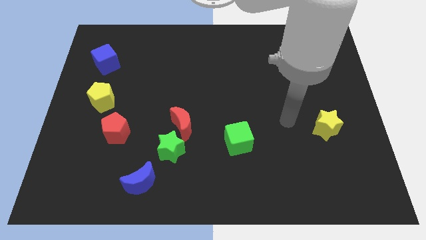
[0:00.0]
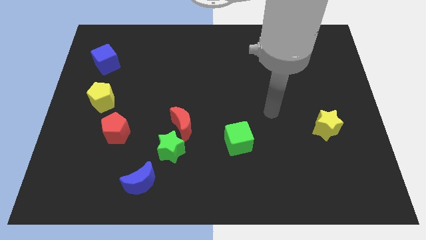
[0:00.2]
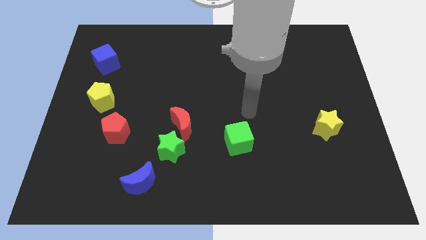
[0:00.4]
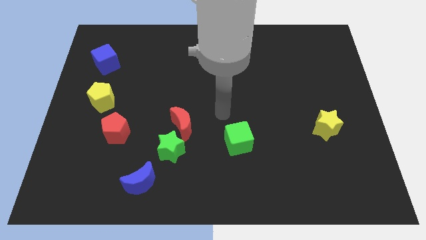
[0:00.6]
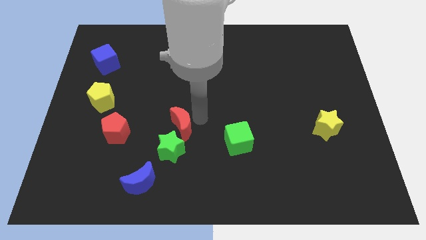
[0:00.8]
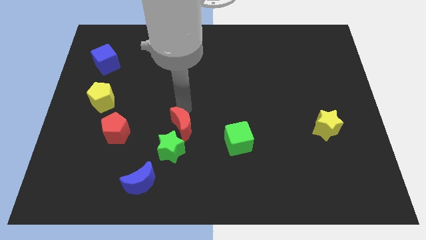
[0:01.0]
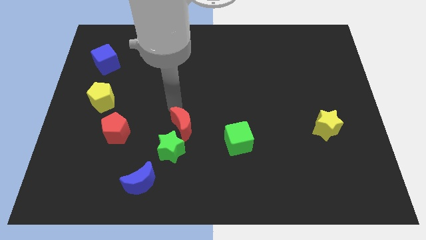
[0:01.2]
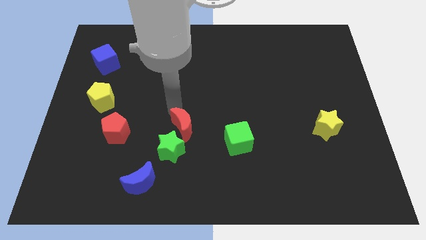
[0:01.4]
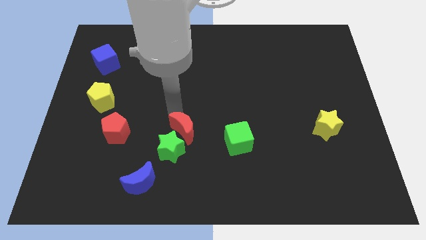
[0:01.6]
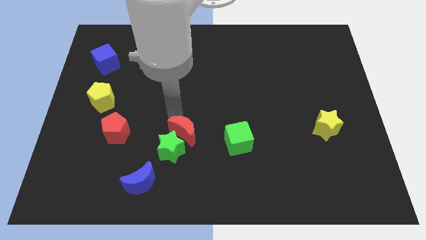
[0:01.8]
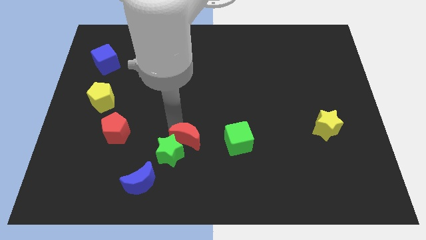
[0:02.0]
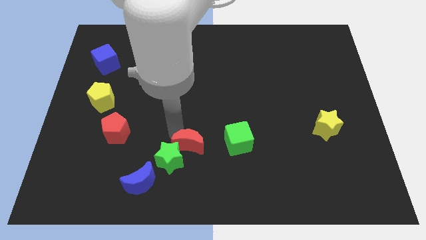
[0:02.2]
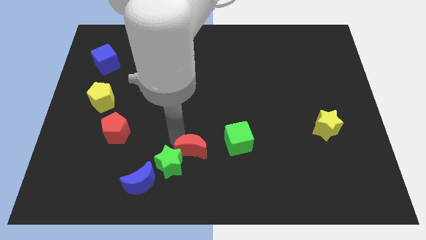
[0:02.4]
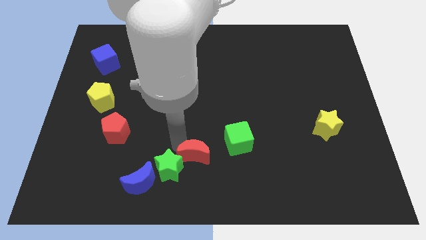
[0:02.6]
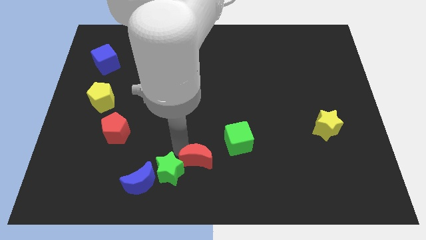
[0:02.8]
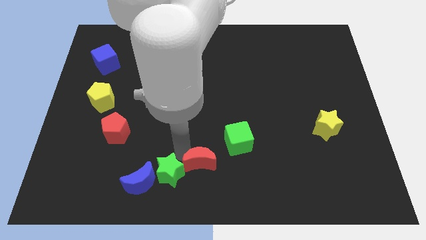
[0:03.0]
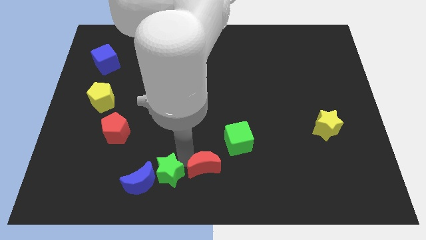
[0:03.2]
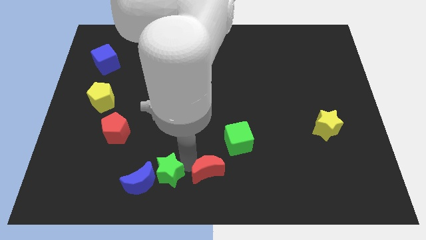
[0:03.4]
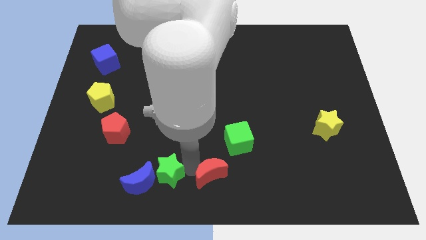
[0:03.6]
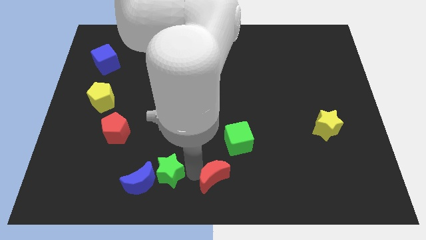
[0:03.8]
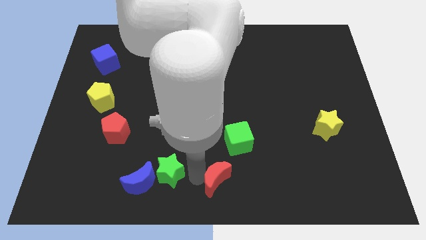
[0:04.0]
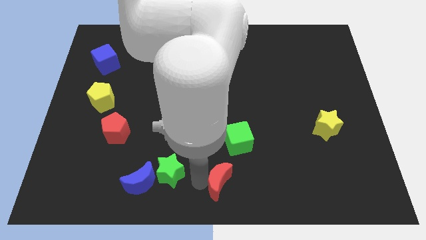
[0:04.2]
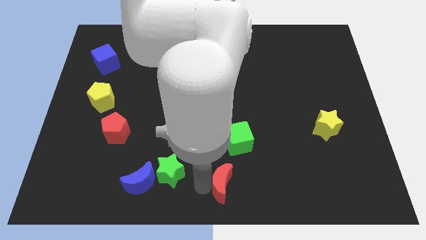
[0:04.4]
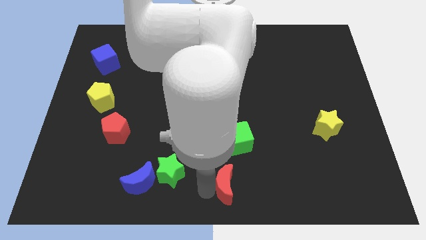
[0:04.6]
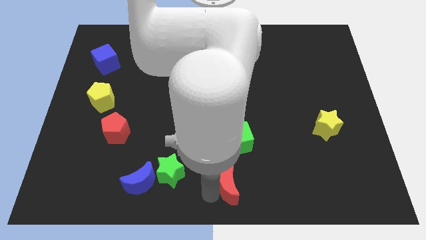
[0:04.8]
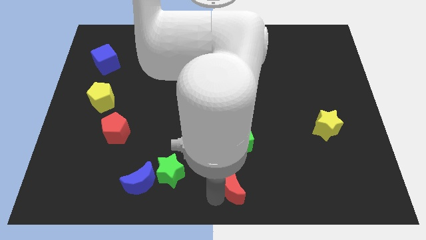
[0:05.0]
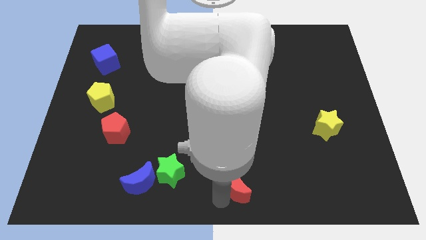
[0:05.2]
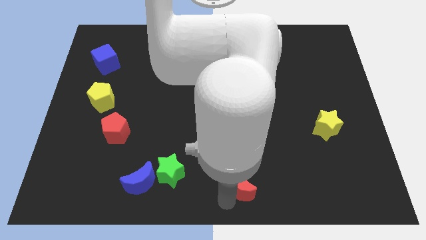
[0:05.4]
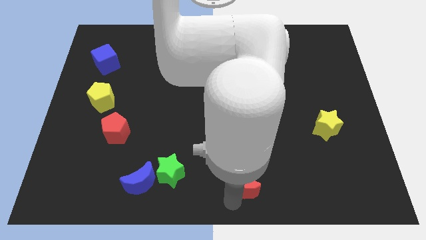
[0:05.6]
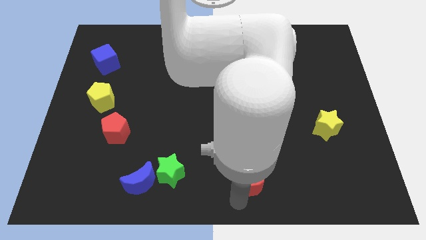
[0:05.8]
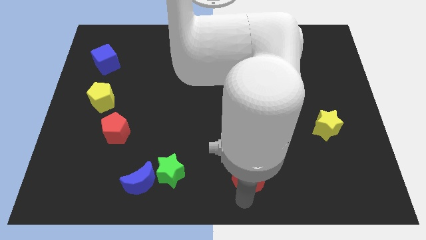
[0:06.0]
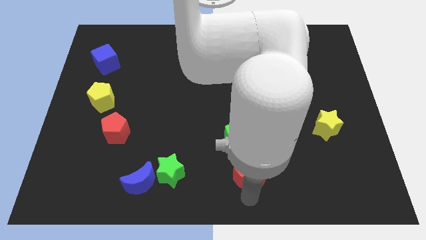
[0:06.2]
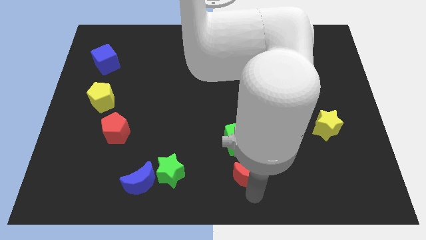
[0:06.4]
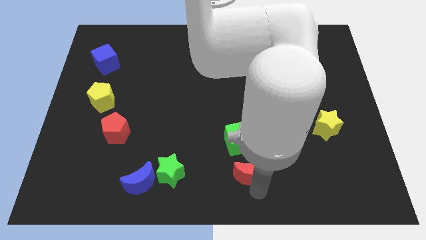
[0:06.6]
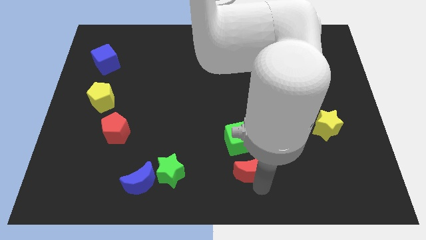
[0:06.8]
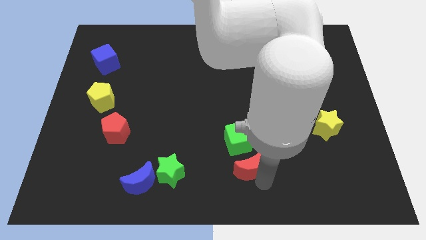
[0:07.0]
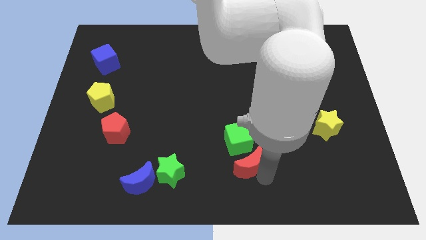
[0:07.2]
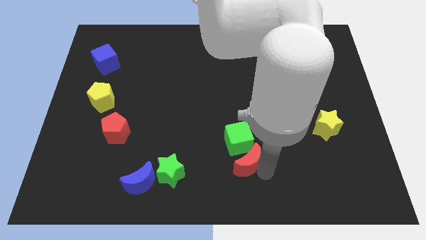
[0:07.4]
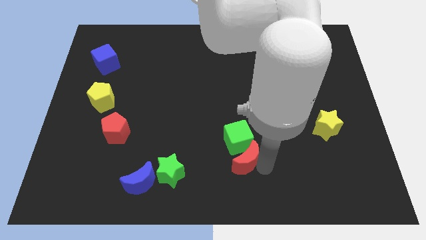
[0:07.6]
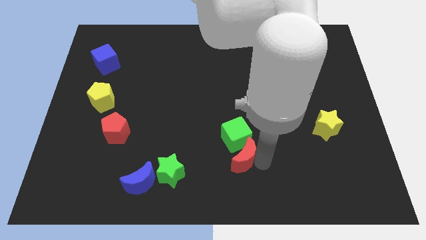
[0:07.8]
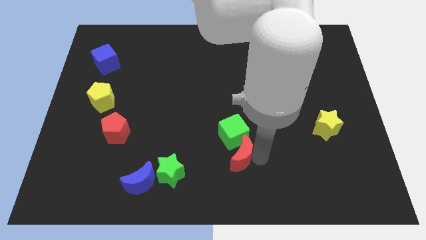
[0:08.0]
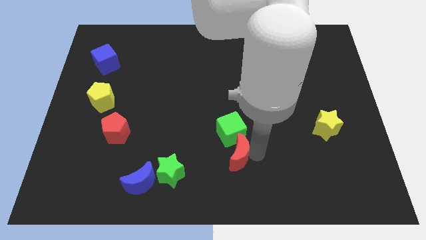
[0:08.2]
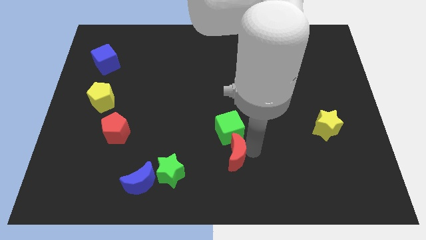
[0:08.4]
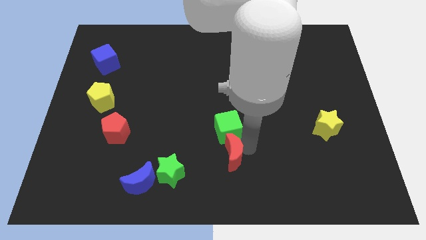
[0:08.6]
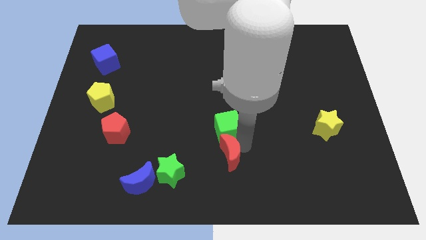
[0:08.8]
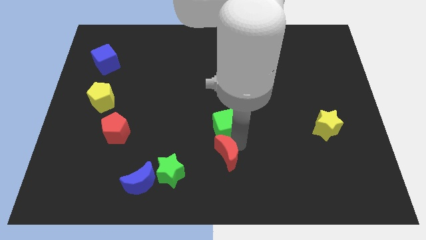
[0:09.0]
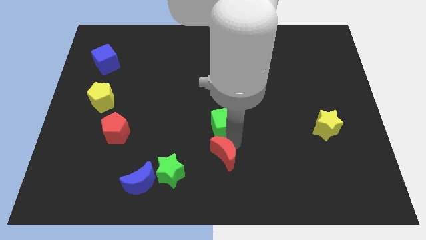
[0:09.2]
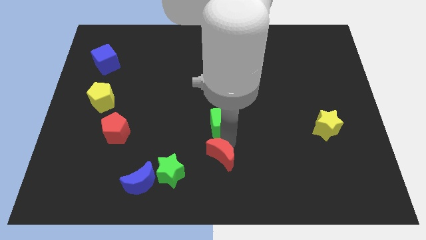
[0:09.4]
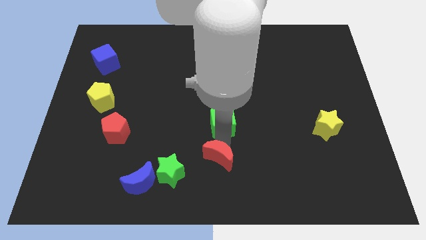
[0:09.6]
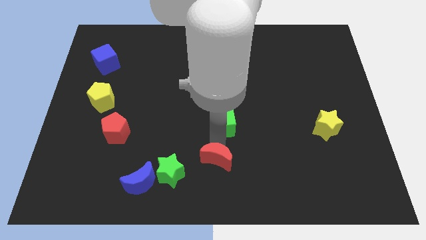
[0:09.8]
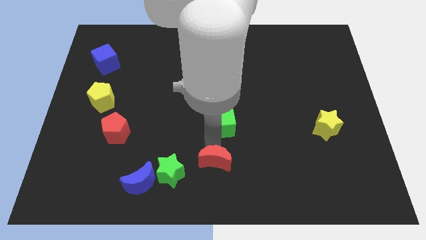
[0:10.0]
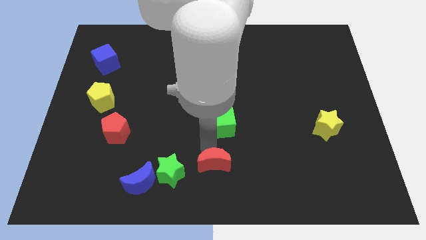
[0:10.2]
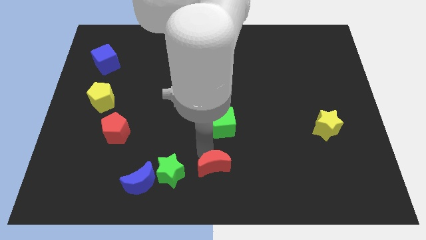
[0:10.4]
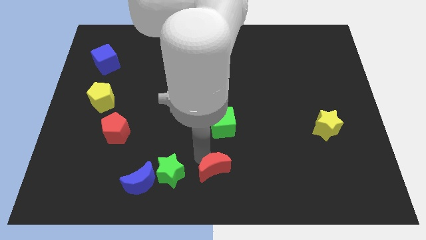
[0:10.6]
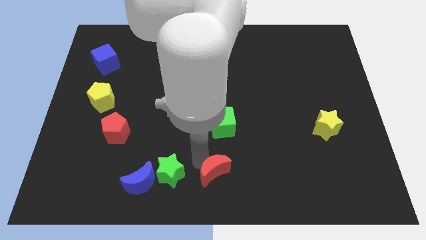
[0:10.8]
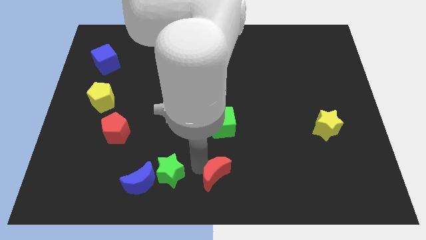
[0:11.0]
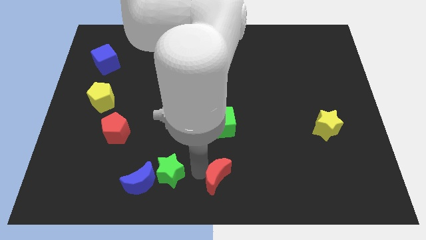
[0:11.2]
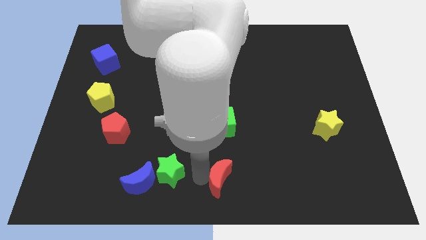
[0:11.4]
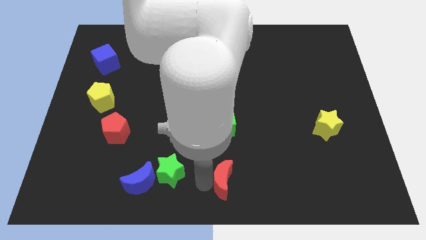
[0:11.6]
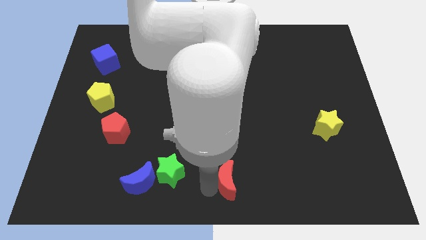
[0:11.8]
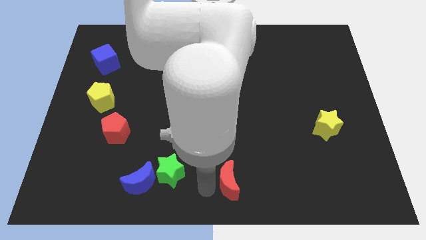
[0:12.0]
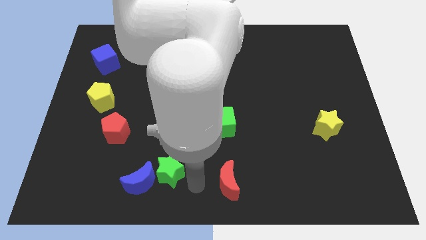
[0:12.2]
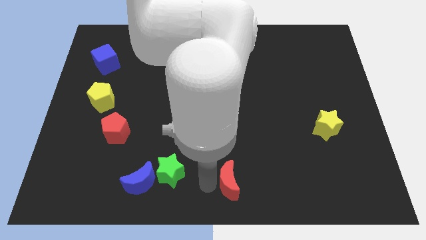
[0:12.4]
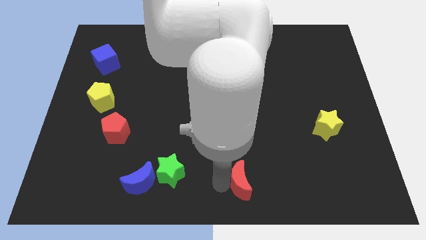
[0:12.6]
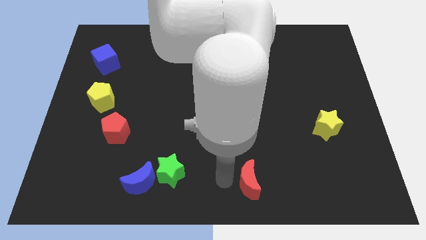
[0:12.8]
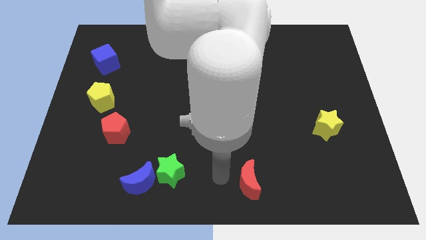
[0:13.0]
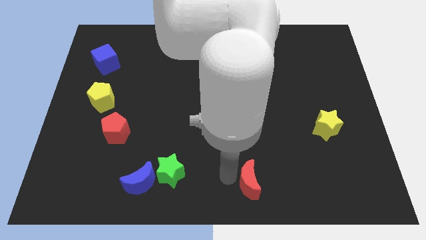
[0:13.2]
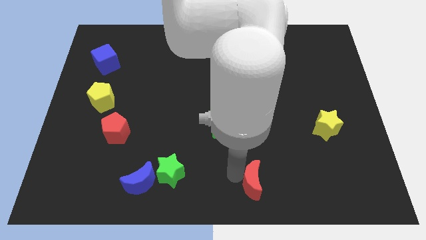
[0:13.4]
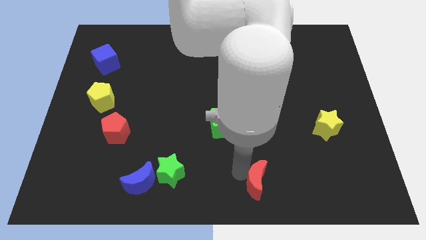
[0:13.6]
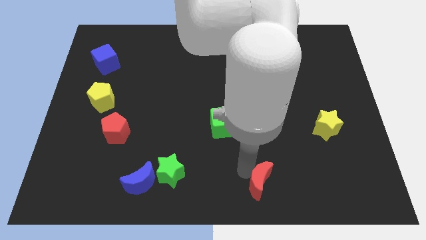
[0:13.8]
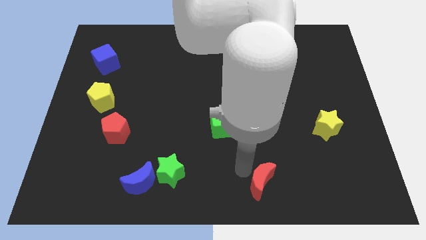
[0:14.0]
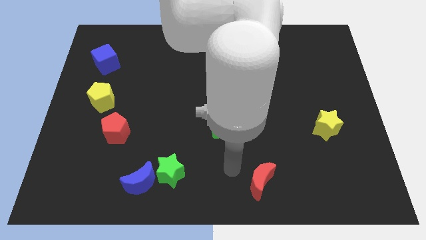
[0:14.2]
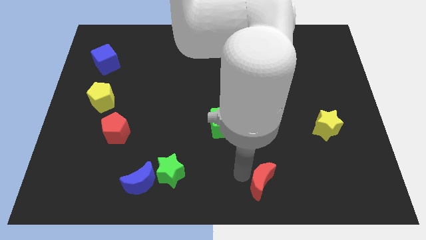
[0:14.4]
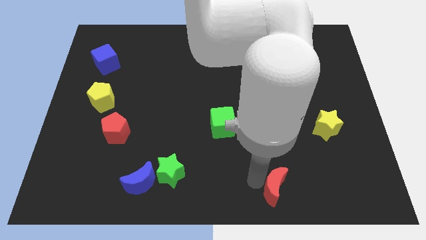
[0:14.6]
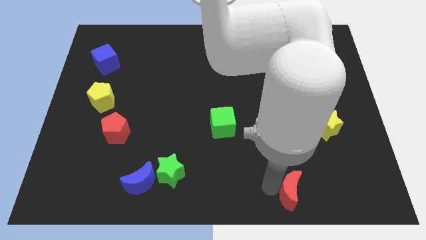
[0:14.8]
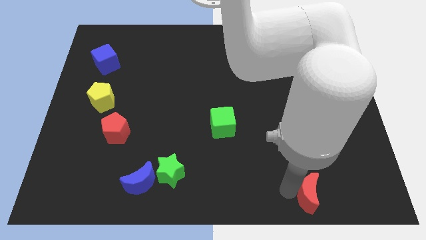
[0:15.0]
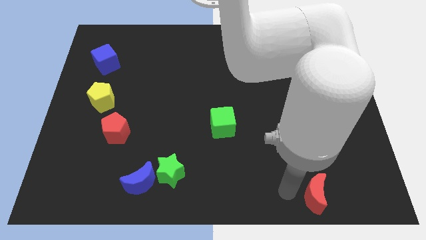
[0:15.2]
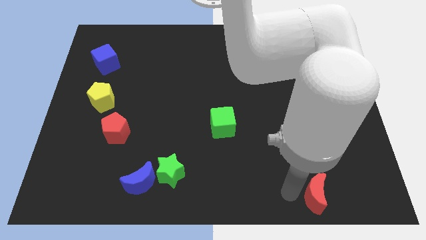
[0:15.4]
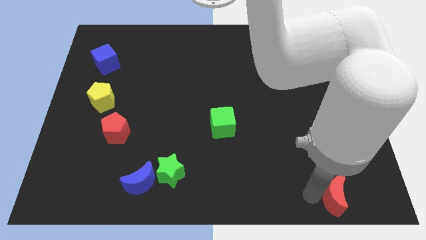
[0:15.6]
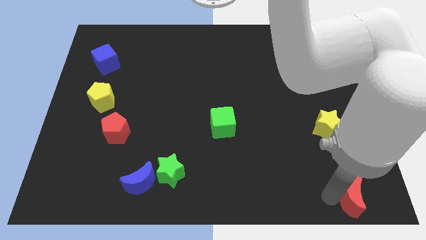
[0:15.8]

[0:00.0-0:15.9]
slide the red moon to the lower right corner
